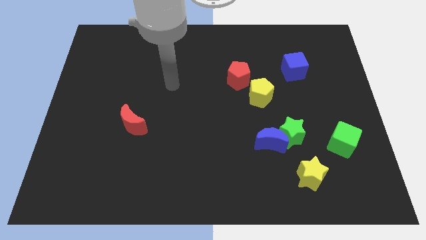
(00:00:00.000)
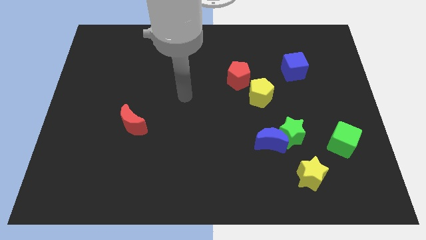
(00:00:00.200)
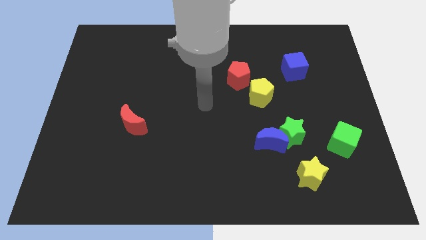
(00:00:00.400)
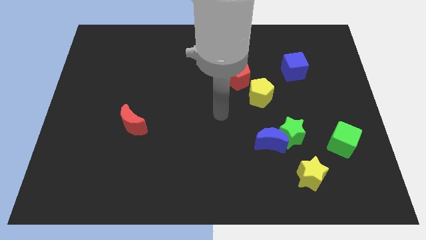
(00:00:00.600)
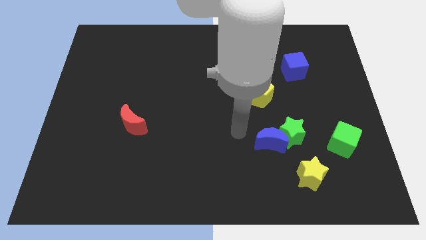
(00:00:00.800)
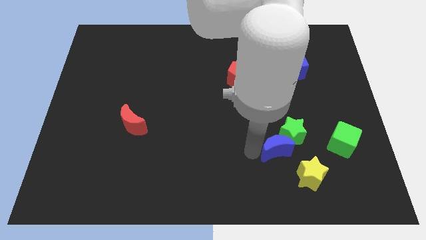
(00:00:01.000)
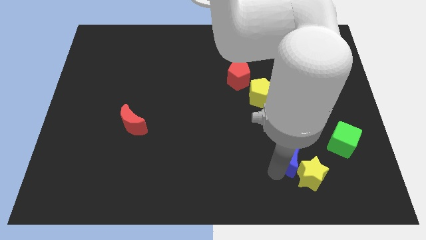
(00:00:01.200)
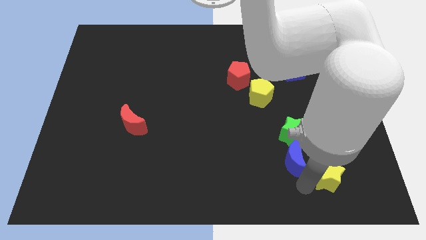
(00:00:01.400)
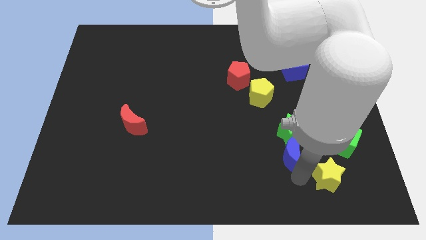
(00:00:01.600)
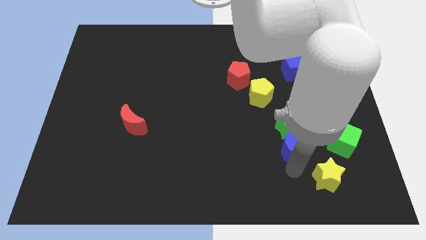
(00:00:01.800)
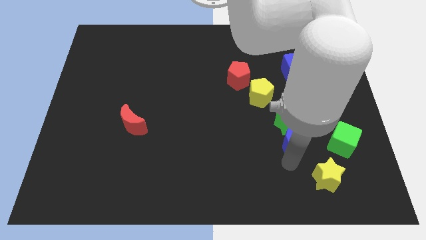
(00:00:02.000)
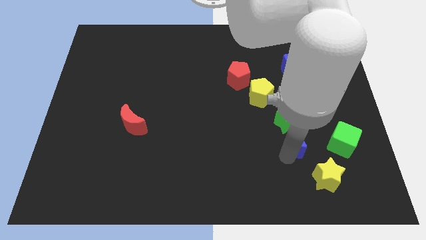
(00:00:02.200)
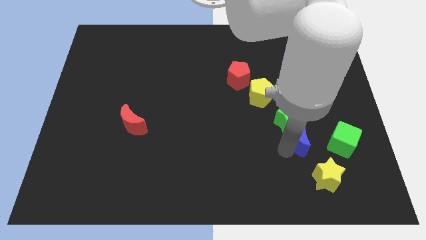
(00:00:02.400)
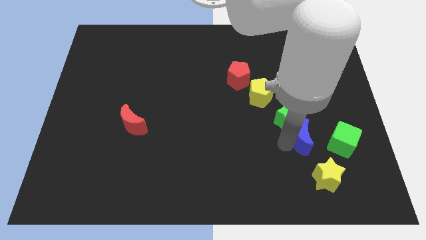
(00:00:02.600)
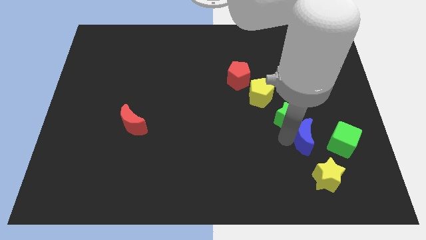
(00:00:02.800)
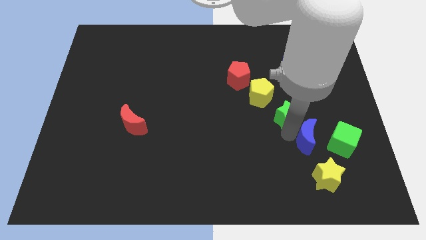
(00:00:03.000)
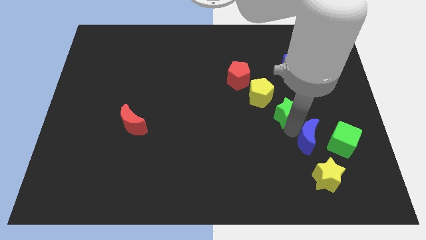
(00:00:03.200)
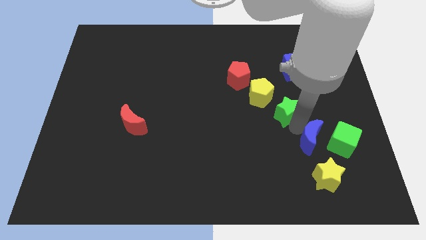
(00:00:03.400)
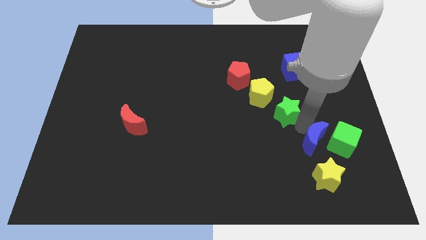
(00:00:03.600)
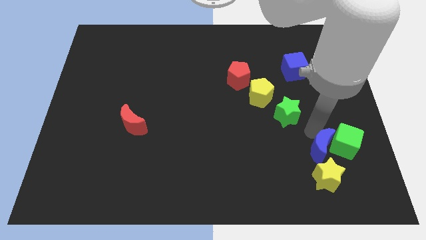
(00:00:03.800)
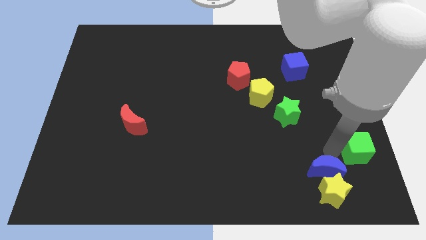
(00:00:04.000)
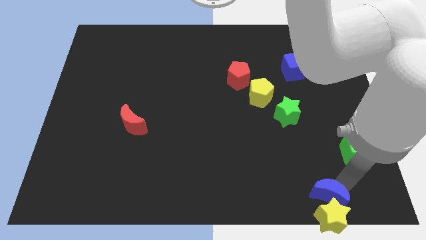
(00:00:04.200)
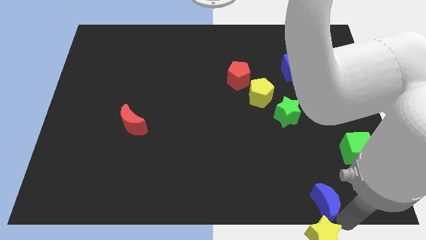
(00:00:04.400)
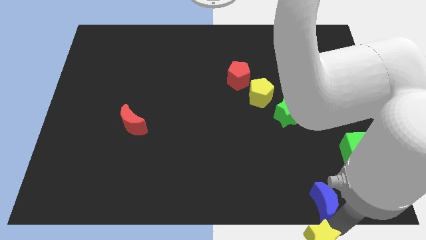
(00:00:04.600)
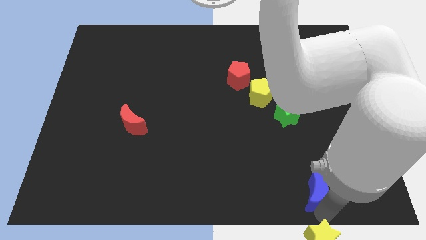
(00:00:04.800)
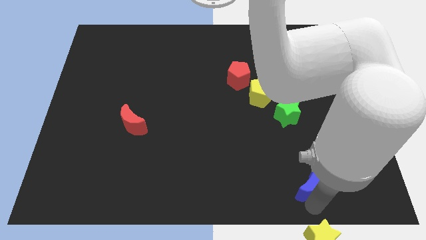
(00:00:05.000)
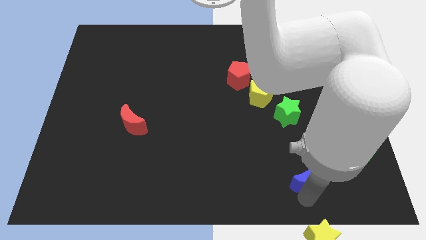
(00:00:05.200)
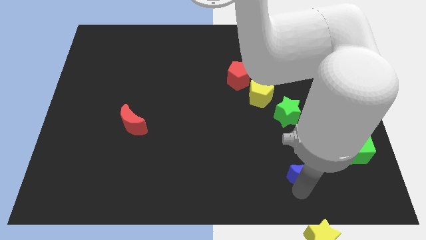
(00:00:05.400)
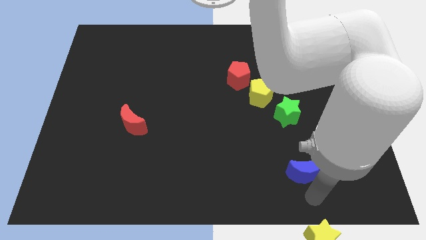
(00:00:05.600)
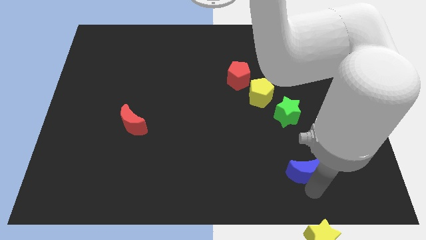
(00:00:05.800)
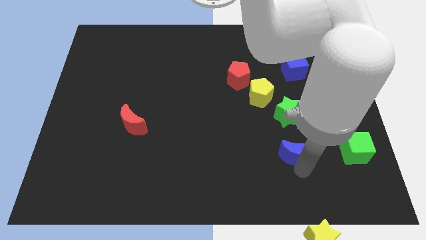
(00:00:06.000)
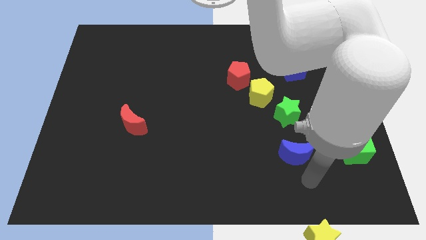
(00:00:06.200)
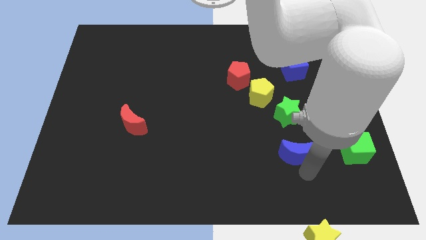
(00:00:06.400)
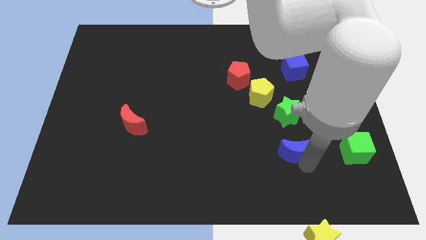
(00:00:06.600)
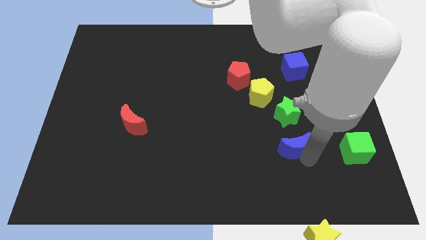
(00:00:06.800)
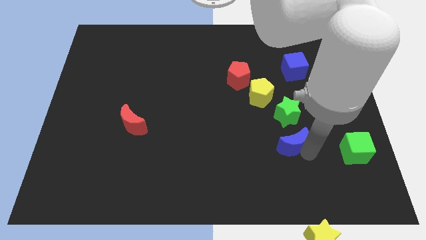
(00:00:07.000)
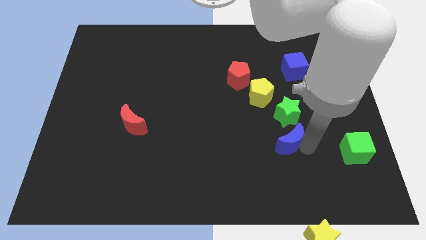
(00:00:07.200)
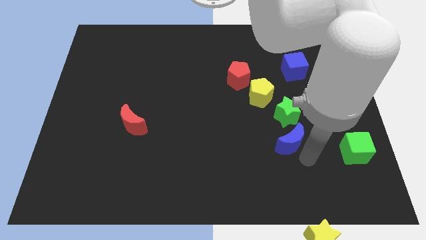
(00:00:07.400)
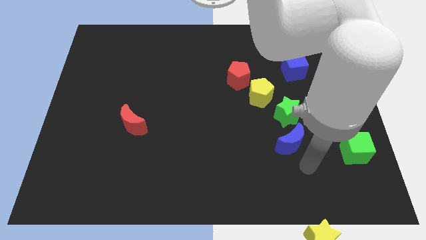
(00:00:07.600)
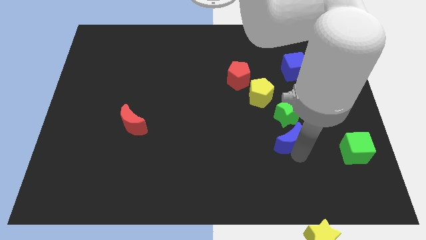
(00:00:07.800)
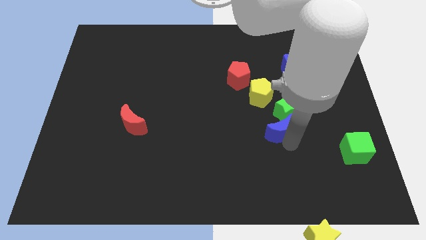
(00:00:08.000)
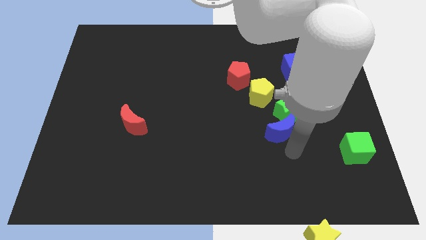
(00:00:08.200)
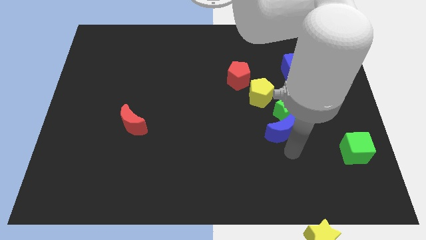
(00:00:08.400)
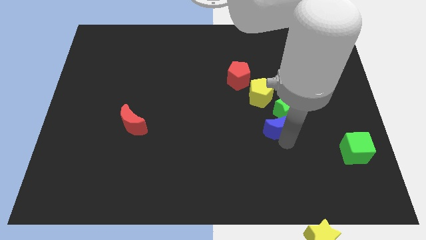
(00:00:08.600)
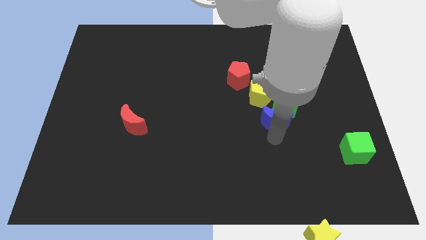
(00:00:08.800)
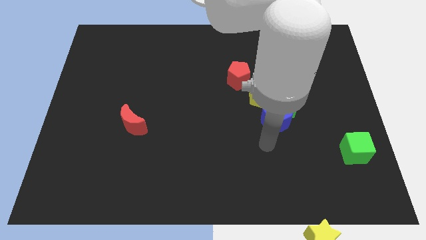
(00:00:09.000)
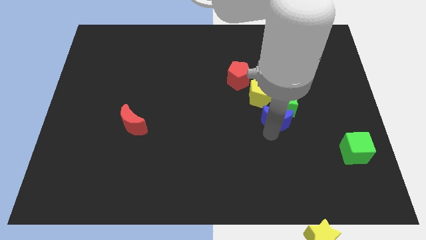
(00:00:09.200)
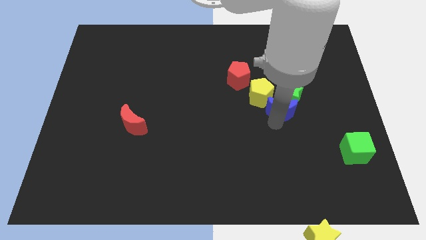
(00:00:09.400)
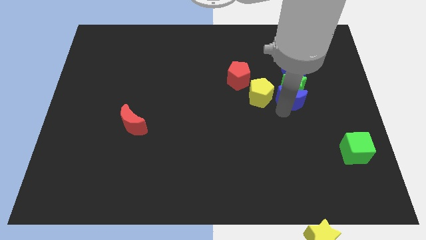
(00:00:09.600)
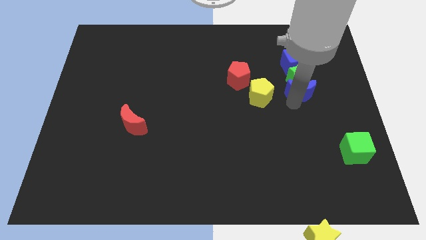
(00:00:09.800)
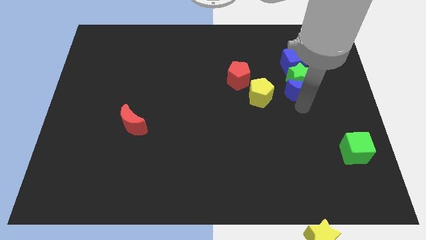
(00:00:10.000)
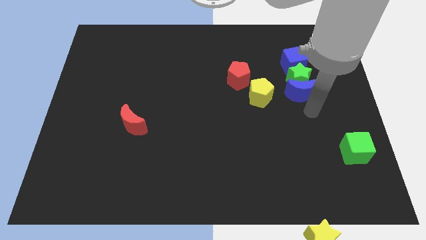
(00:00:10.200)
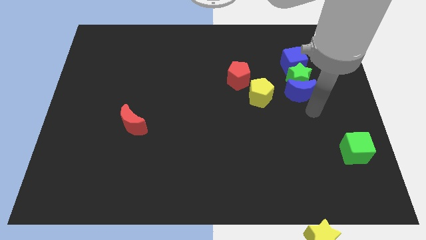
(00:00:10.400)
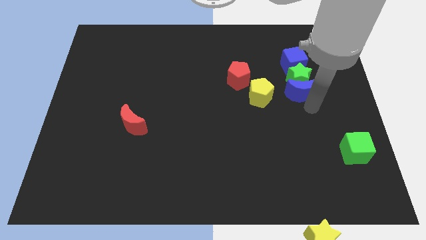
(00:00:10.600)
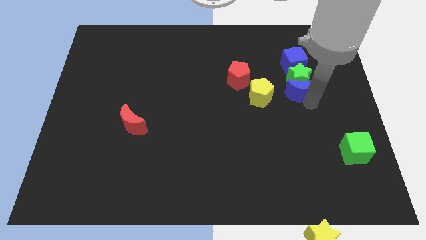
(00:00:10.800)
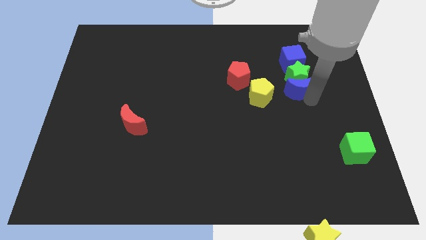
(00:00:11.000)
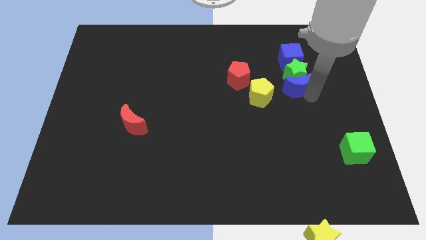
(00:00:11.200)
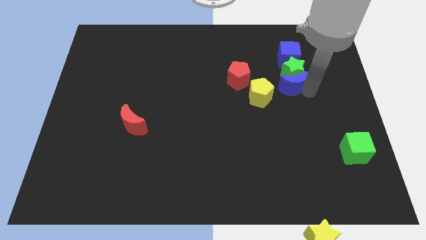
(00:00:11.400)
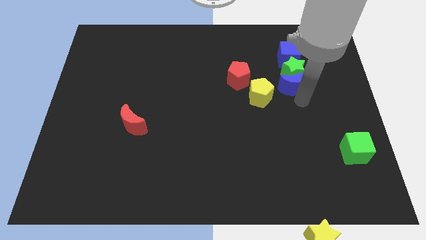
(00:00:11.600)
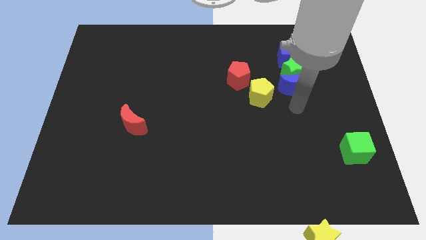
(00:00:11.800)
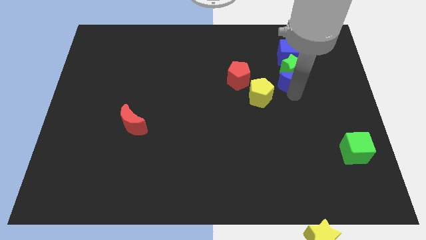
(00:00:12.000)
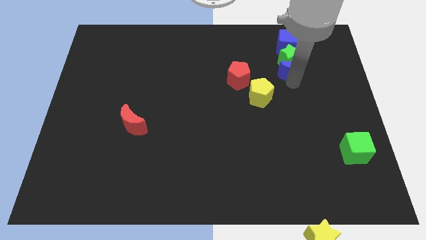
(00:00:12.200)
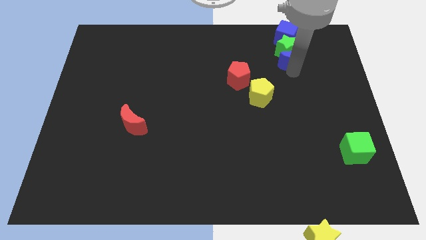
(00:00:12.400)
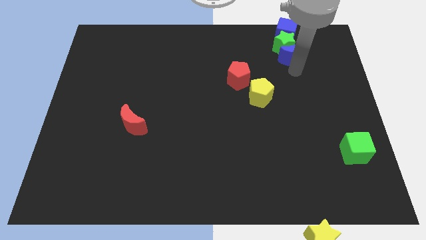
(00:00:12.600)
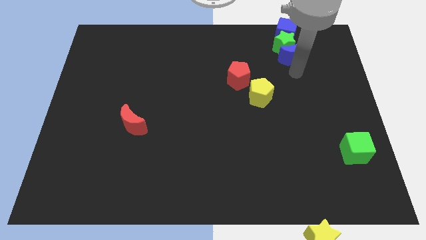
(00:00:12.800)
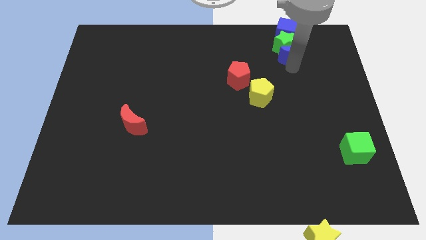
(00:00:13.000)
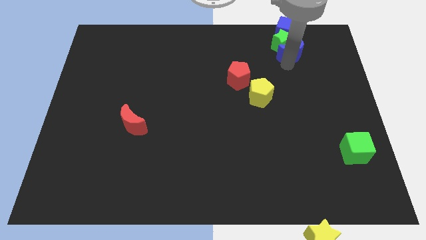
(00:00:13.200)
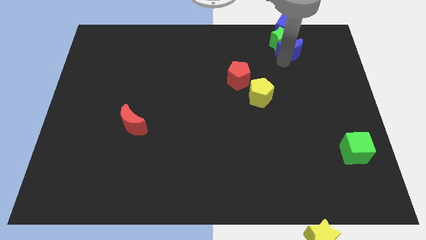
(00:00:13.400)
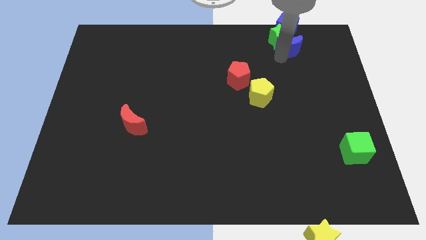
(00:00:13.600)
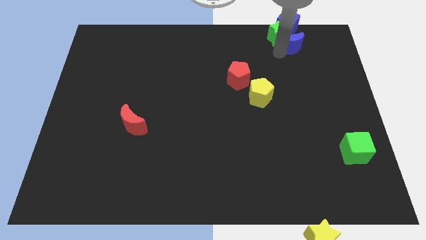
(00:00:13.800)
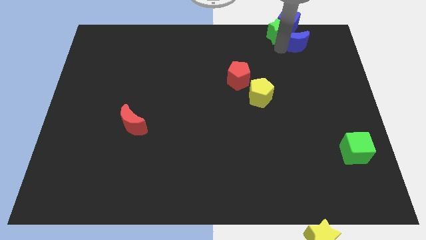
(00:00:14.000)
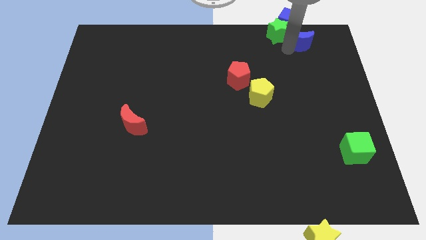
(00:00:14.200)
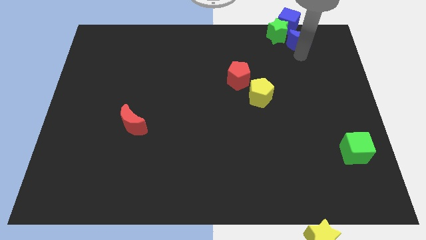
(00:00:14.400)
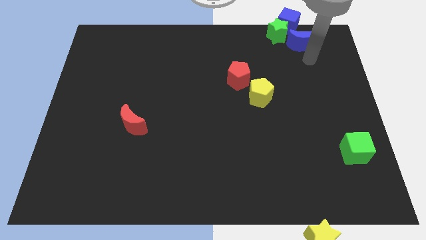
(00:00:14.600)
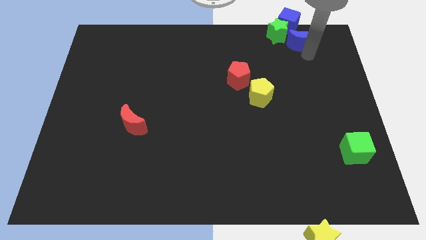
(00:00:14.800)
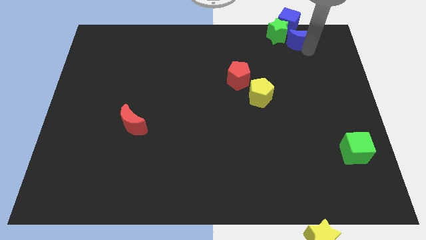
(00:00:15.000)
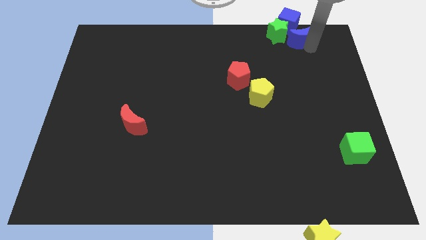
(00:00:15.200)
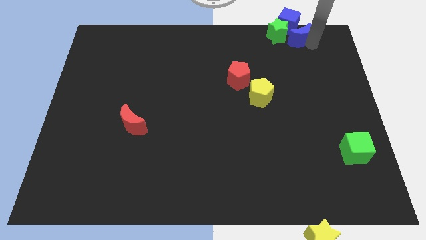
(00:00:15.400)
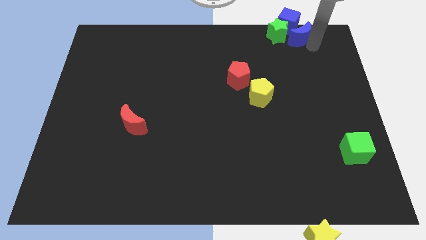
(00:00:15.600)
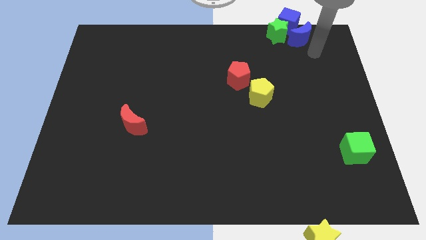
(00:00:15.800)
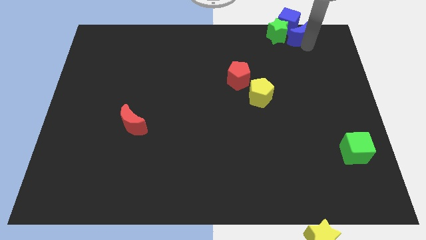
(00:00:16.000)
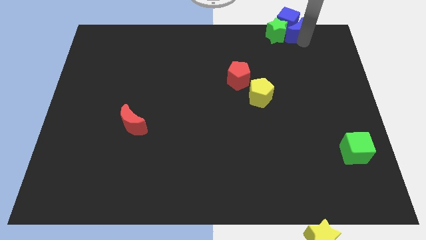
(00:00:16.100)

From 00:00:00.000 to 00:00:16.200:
slide the blue moon next to the blue cube
